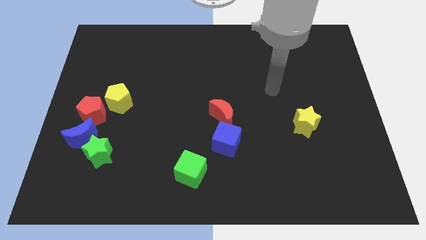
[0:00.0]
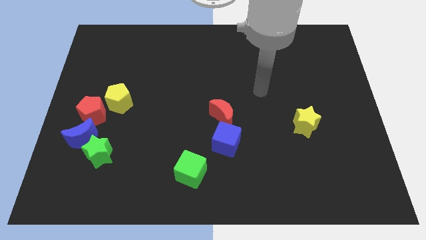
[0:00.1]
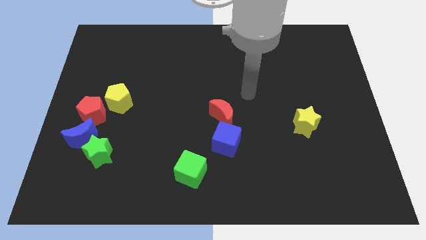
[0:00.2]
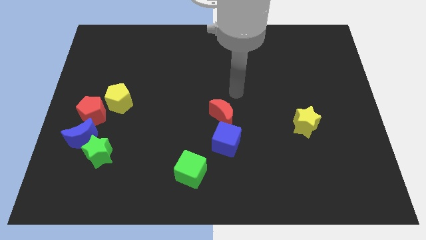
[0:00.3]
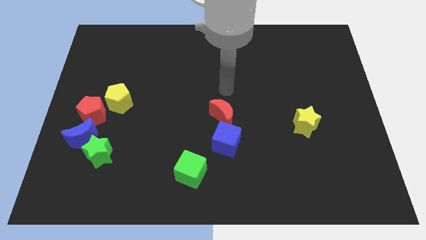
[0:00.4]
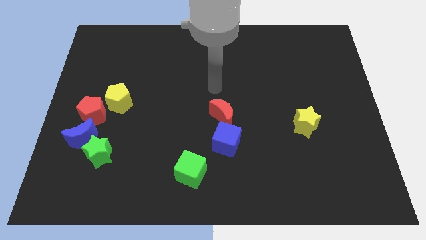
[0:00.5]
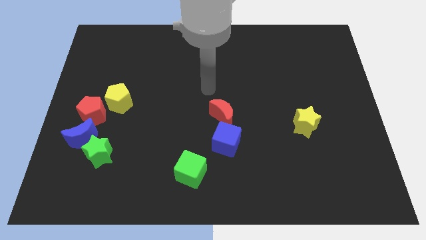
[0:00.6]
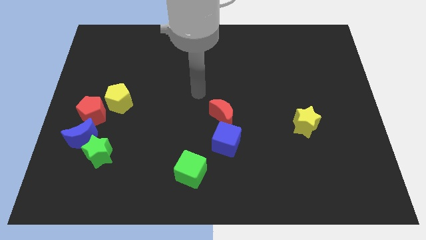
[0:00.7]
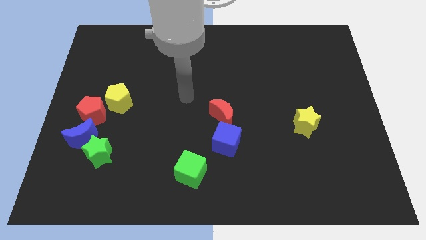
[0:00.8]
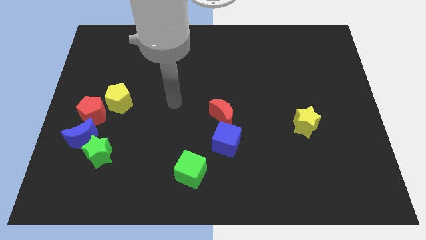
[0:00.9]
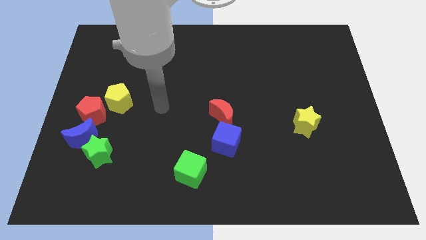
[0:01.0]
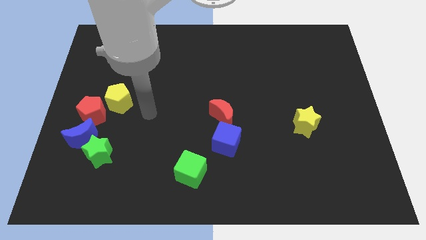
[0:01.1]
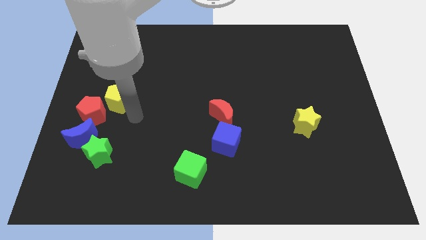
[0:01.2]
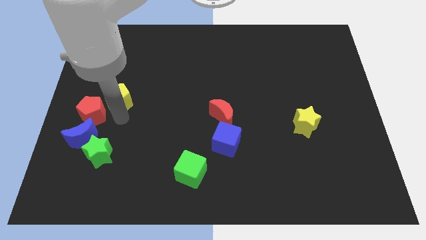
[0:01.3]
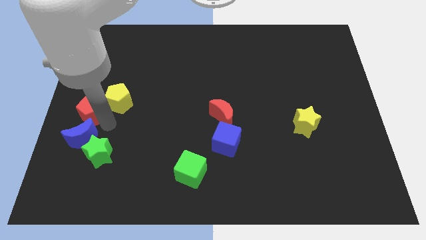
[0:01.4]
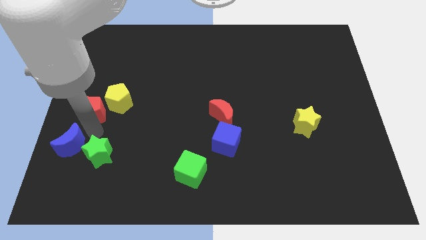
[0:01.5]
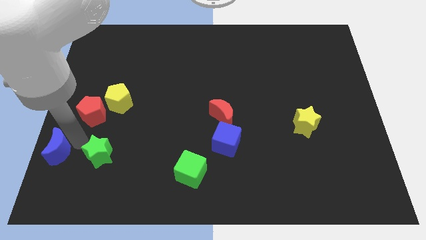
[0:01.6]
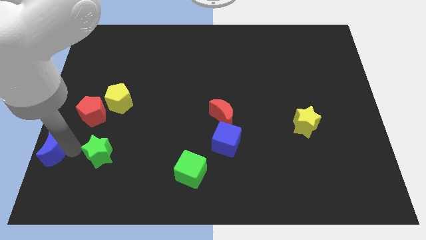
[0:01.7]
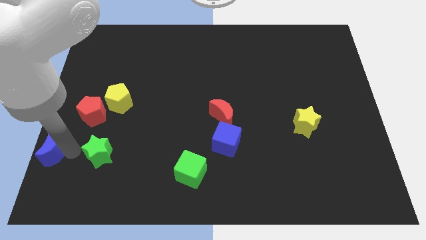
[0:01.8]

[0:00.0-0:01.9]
separate the green star from the blue moon

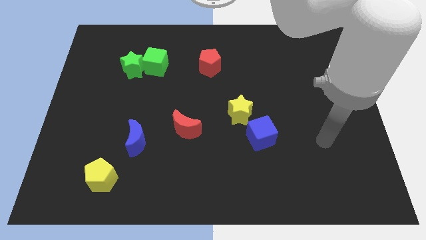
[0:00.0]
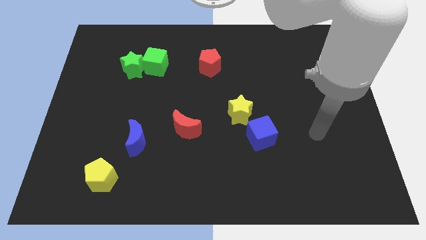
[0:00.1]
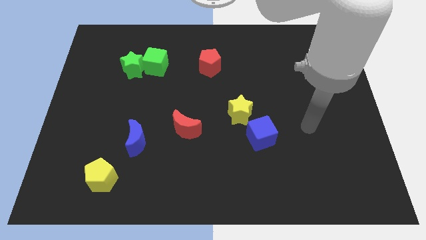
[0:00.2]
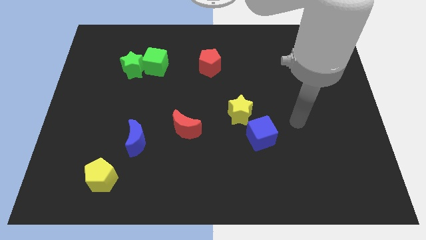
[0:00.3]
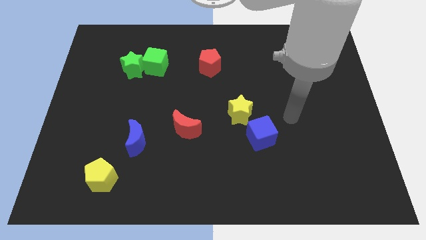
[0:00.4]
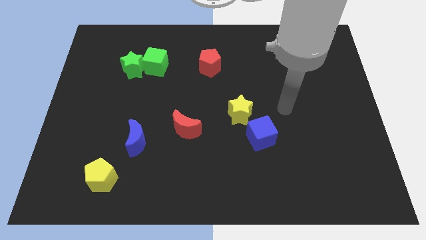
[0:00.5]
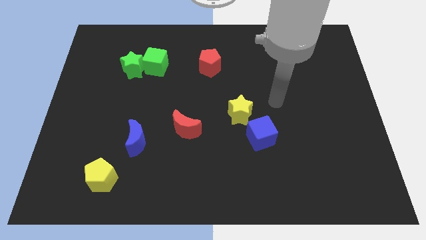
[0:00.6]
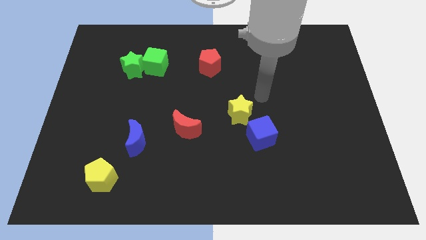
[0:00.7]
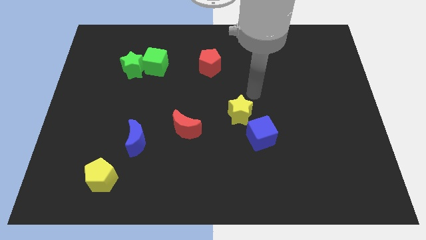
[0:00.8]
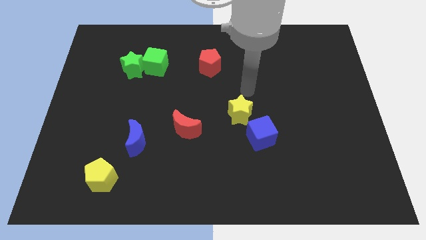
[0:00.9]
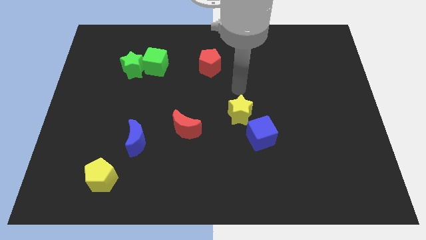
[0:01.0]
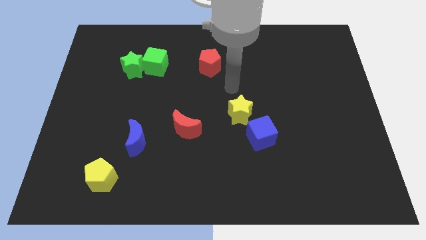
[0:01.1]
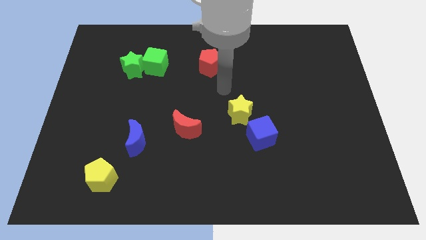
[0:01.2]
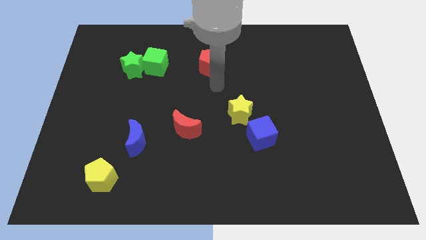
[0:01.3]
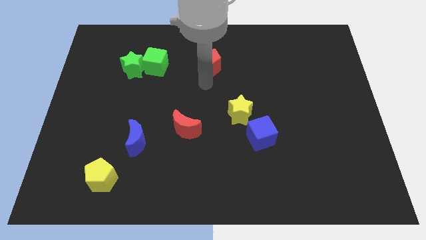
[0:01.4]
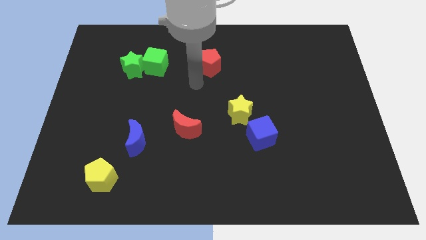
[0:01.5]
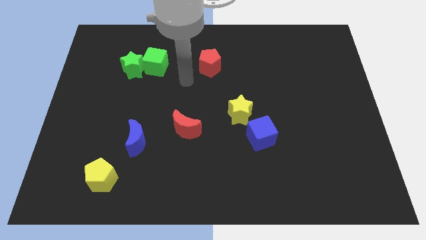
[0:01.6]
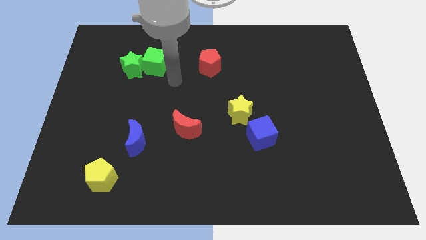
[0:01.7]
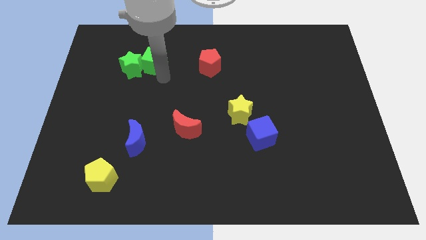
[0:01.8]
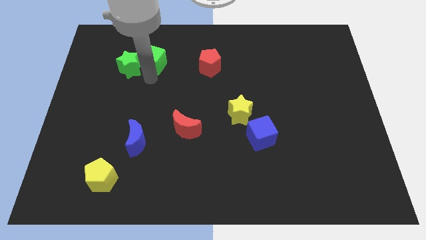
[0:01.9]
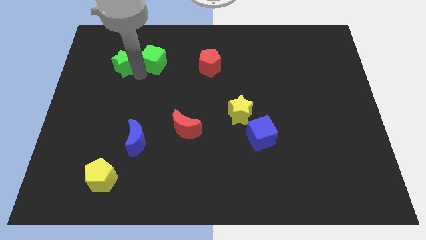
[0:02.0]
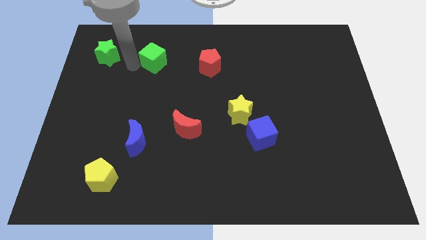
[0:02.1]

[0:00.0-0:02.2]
separate the green cube from the green star

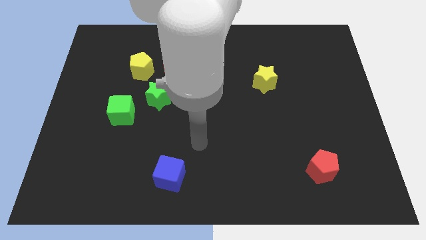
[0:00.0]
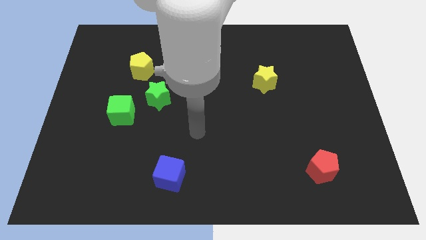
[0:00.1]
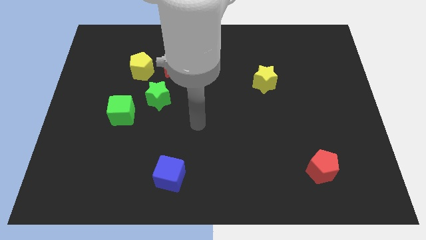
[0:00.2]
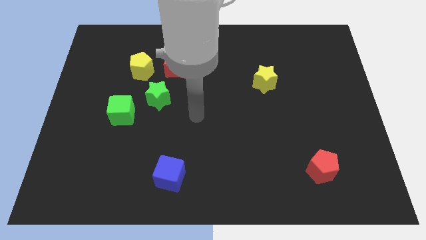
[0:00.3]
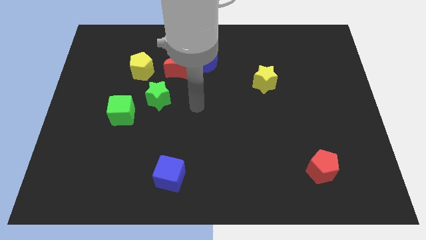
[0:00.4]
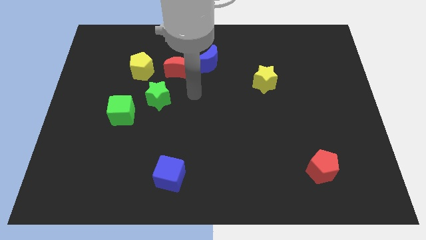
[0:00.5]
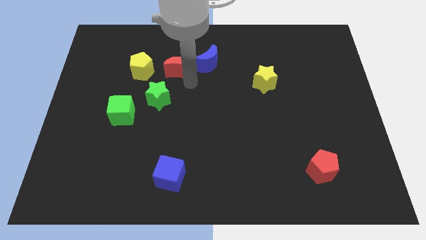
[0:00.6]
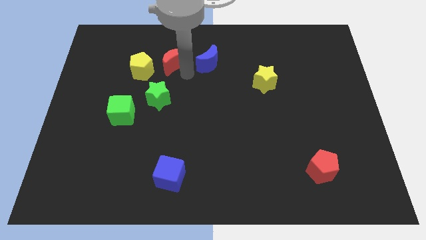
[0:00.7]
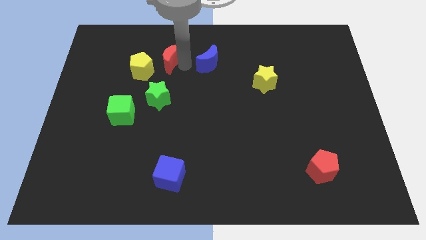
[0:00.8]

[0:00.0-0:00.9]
pull the blue moon apart from the red moon

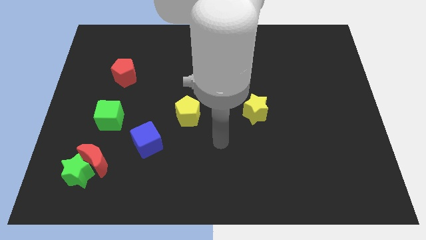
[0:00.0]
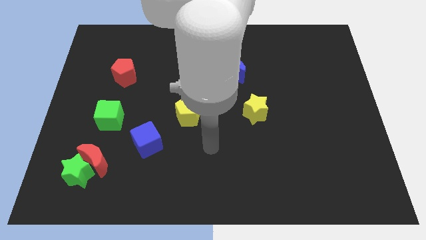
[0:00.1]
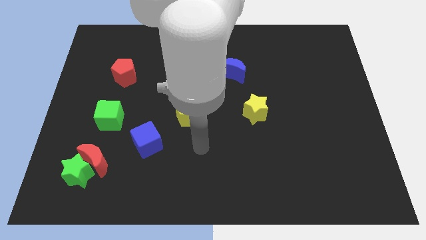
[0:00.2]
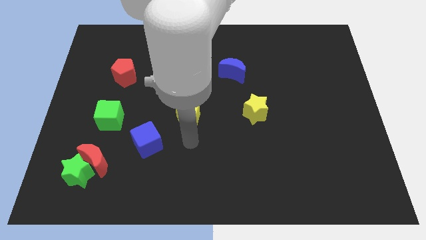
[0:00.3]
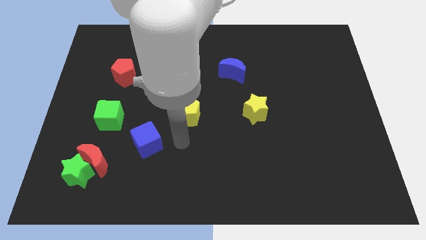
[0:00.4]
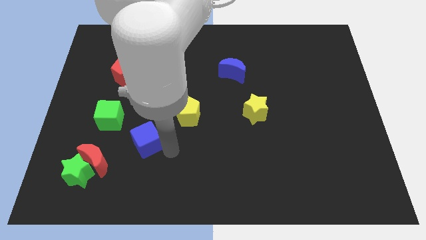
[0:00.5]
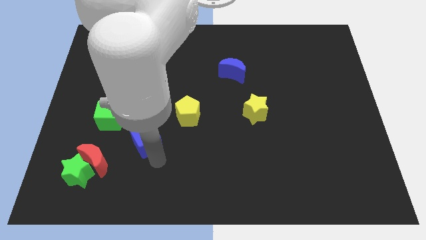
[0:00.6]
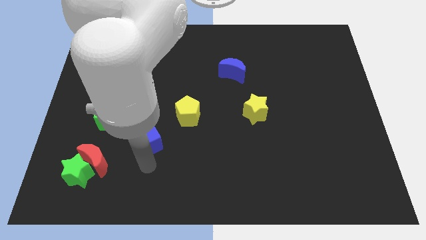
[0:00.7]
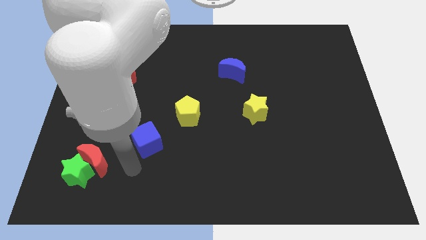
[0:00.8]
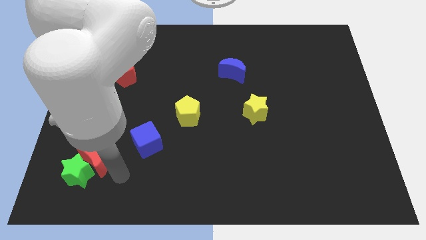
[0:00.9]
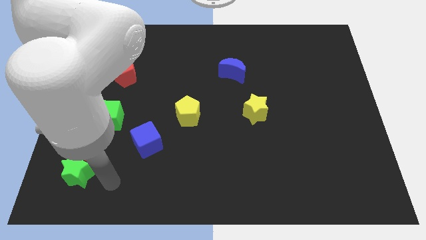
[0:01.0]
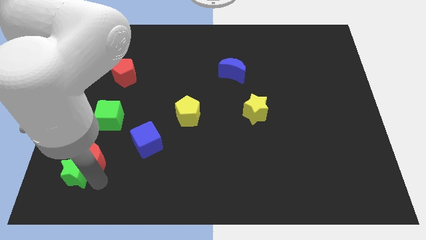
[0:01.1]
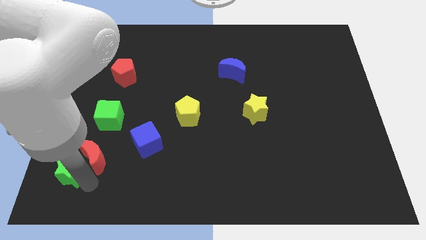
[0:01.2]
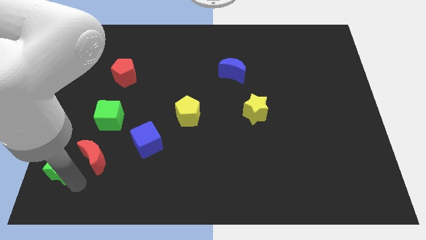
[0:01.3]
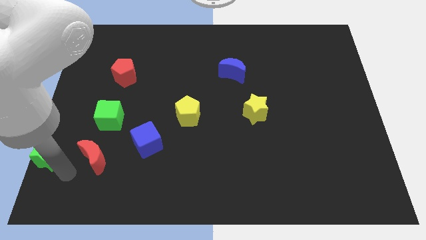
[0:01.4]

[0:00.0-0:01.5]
move the red moon away from the green star

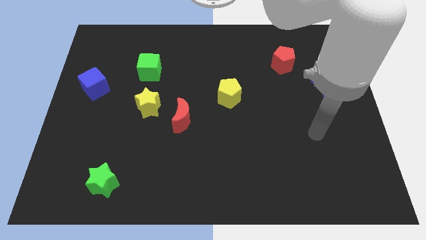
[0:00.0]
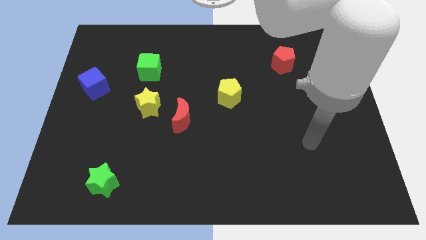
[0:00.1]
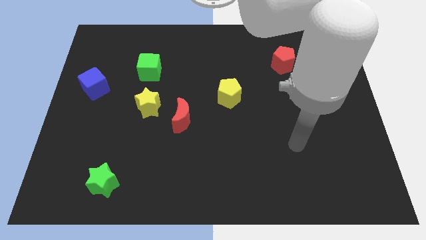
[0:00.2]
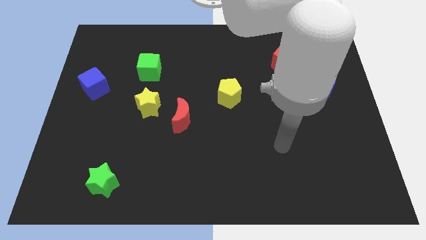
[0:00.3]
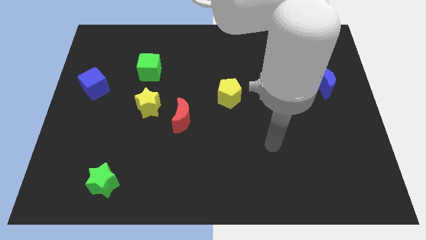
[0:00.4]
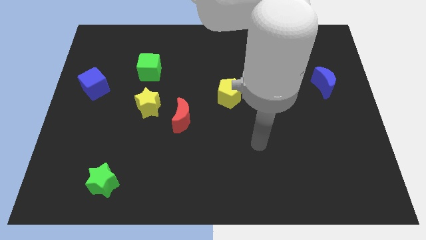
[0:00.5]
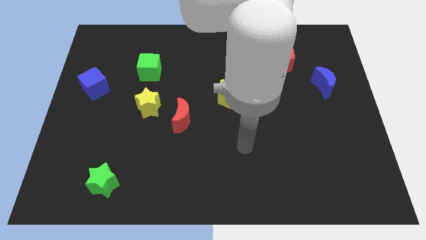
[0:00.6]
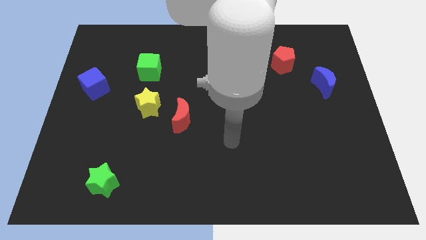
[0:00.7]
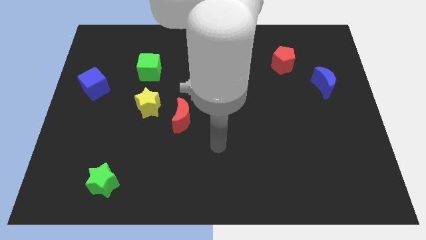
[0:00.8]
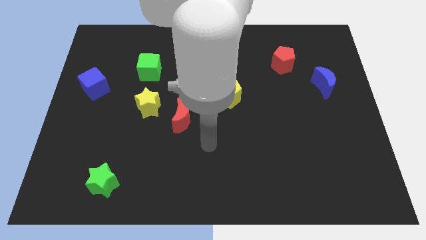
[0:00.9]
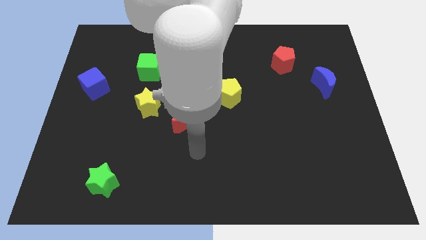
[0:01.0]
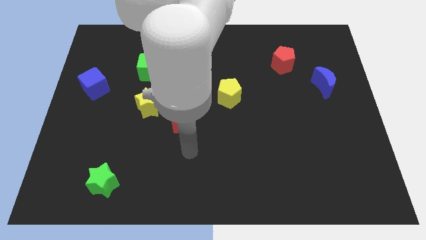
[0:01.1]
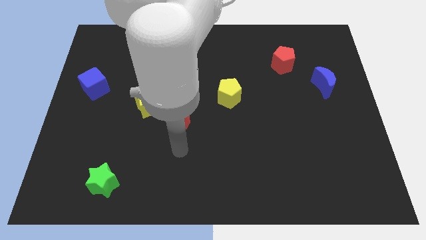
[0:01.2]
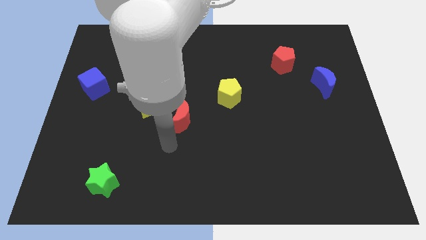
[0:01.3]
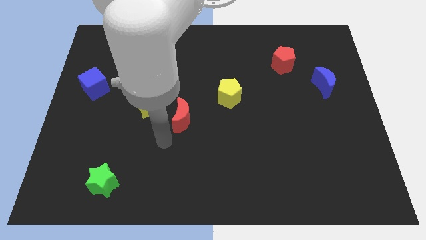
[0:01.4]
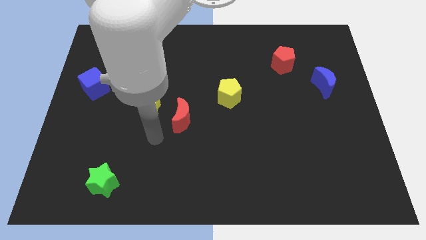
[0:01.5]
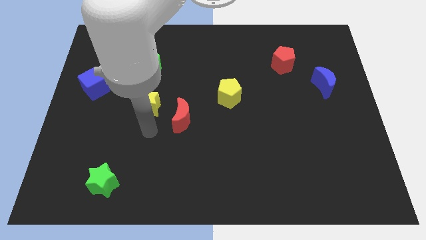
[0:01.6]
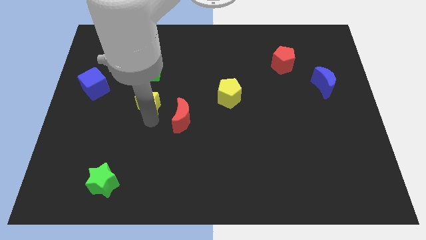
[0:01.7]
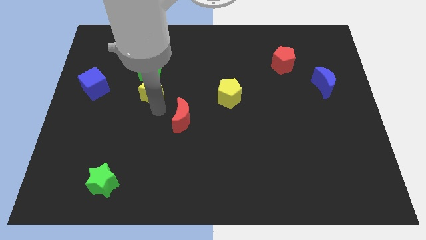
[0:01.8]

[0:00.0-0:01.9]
pull the red moon apart from the yellow star

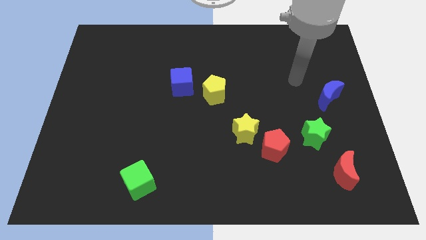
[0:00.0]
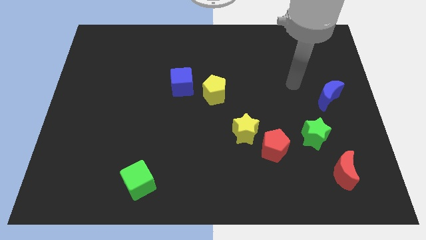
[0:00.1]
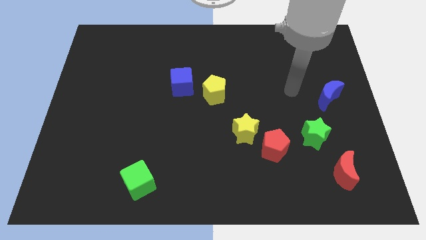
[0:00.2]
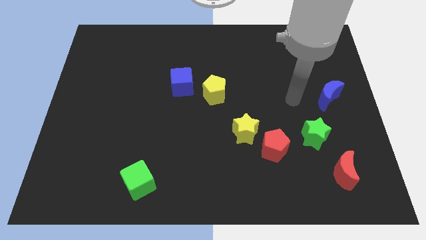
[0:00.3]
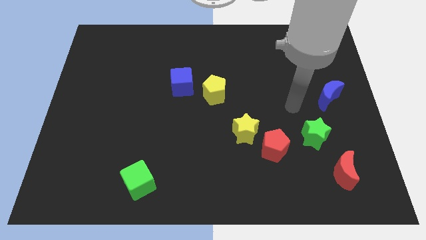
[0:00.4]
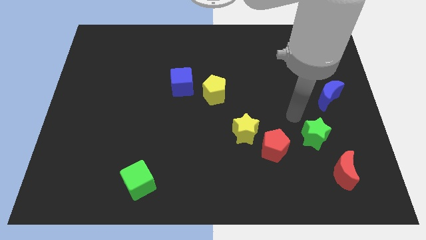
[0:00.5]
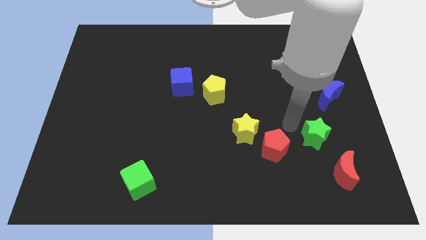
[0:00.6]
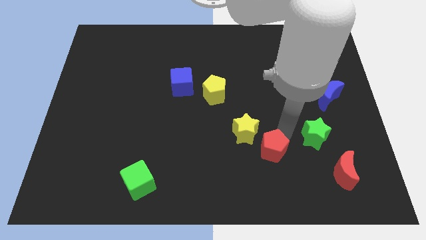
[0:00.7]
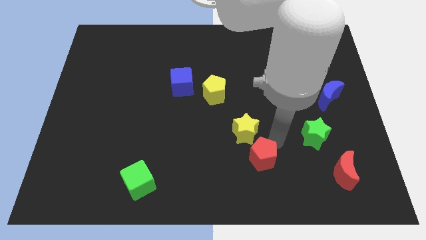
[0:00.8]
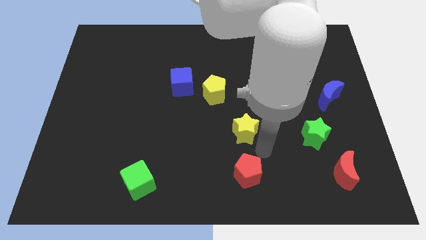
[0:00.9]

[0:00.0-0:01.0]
separate the yellow star from the red pentagon
